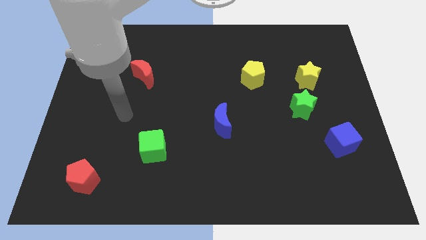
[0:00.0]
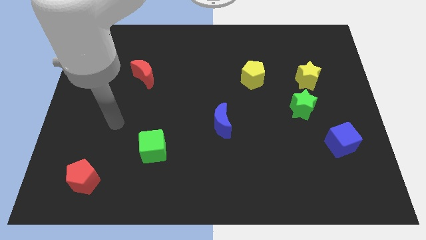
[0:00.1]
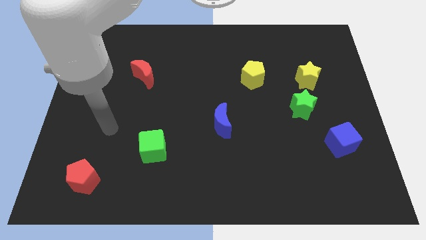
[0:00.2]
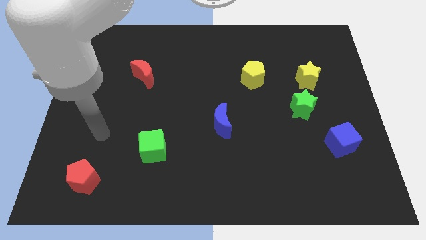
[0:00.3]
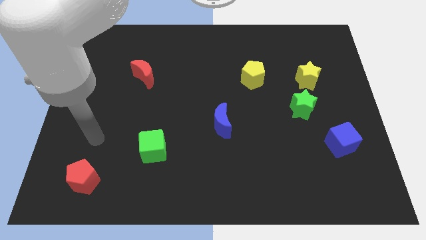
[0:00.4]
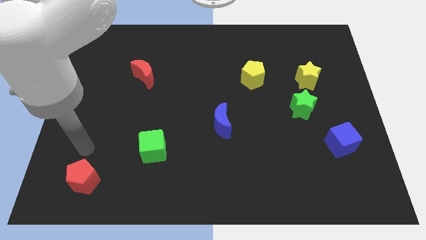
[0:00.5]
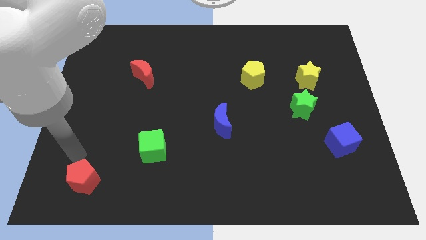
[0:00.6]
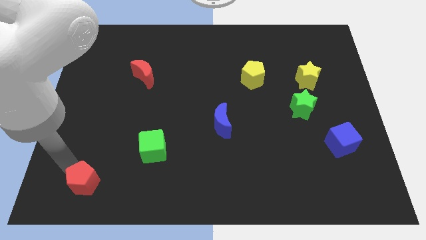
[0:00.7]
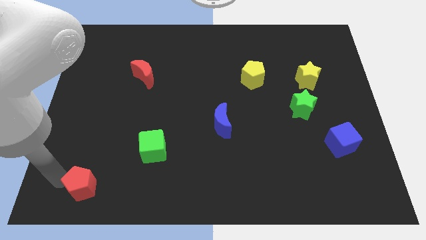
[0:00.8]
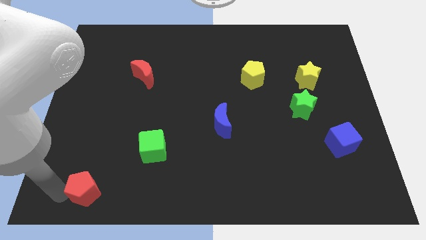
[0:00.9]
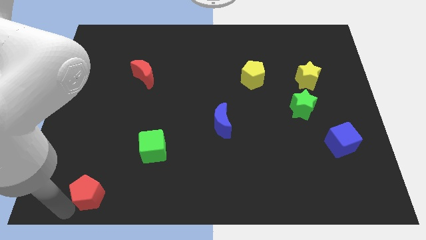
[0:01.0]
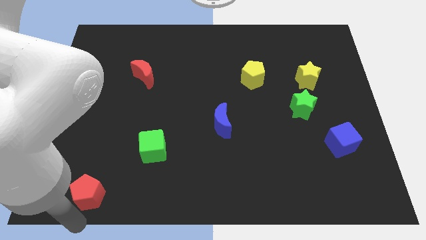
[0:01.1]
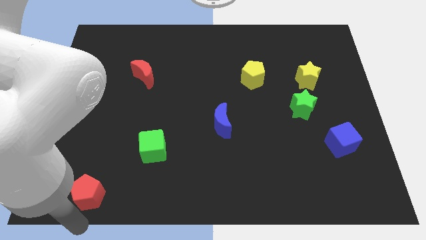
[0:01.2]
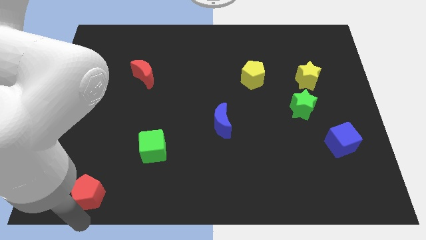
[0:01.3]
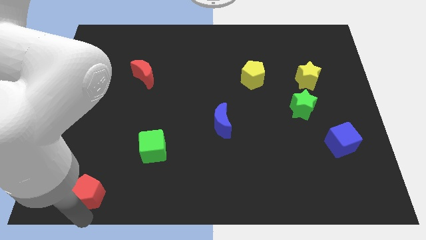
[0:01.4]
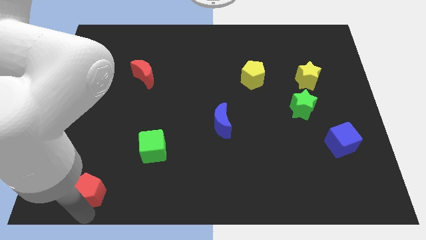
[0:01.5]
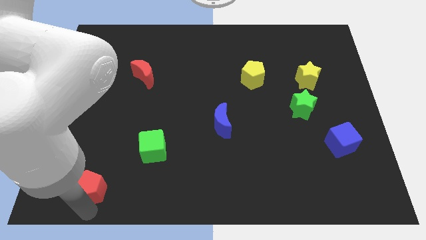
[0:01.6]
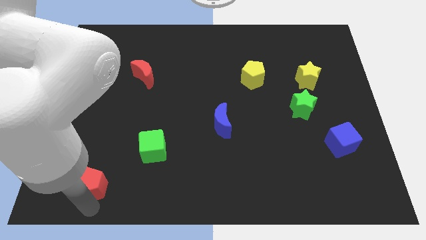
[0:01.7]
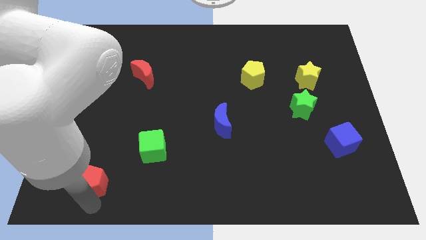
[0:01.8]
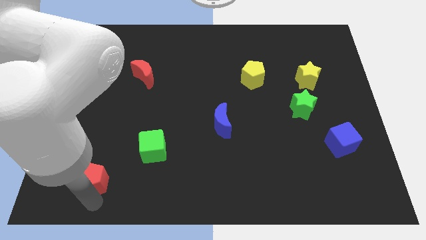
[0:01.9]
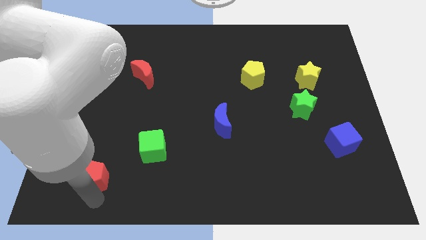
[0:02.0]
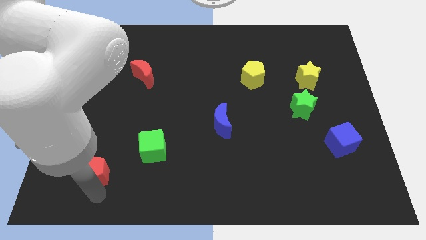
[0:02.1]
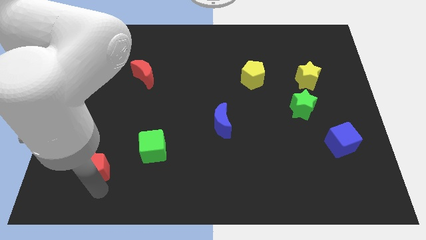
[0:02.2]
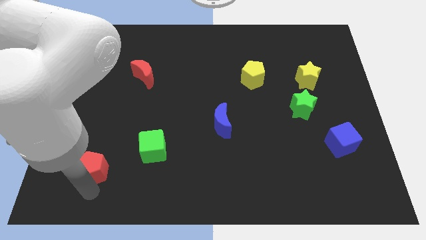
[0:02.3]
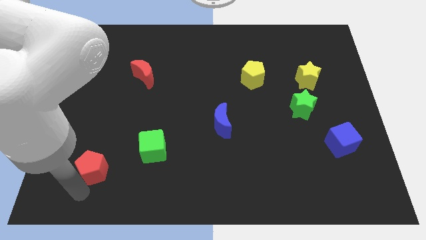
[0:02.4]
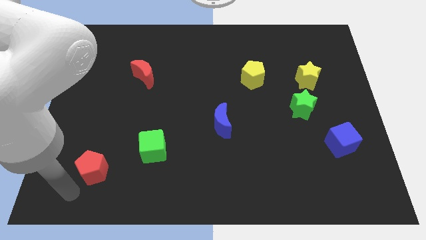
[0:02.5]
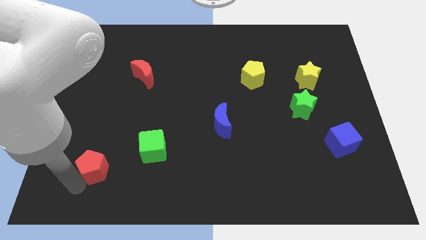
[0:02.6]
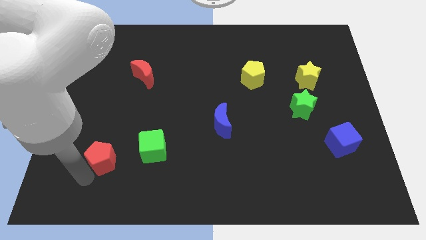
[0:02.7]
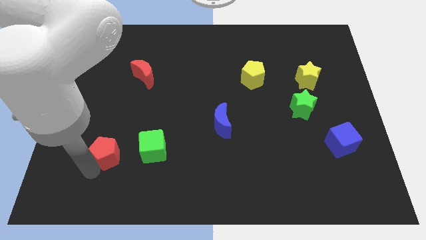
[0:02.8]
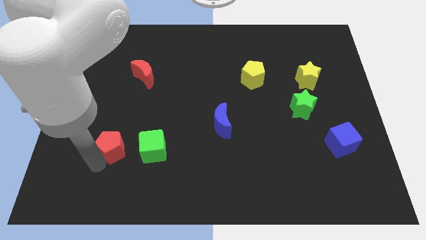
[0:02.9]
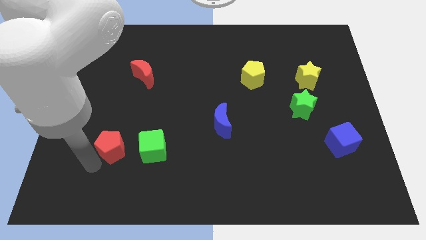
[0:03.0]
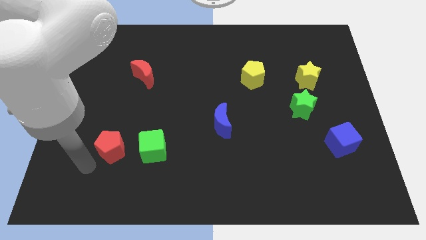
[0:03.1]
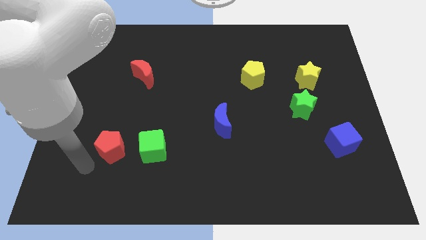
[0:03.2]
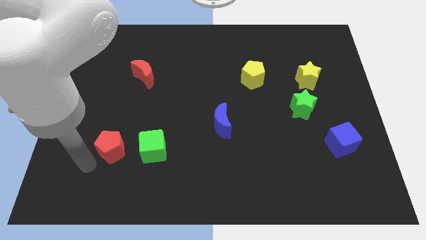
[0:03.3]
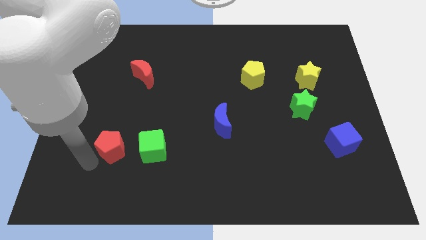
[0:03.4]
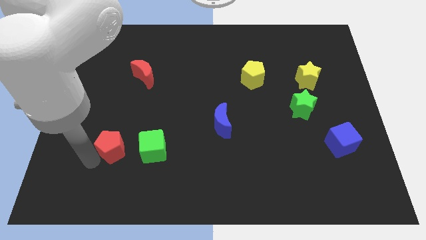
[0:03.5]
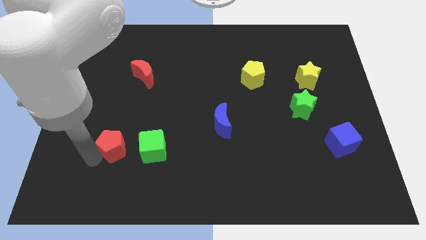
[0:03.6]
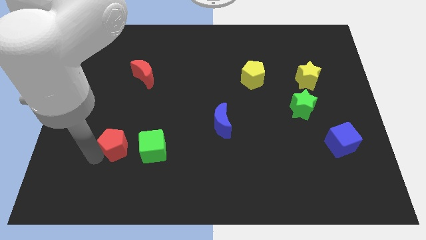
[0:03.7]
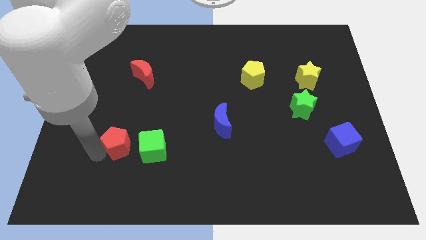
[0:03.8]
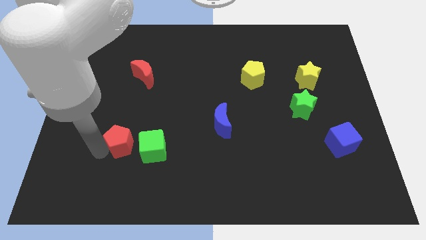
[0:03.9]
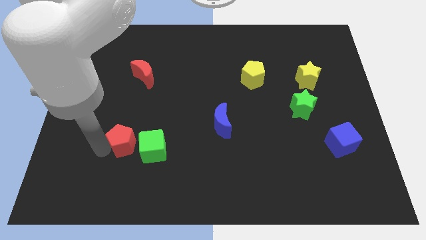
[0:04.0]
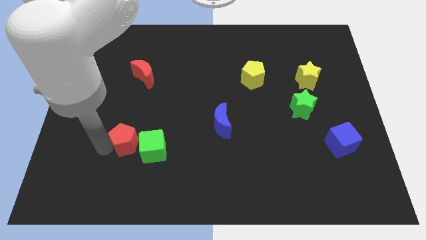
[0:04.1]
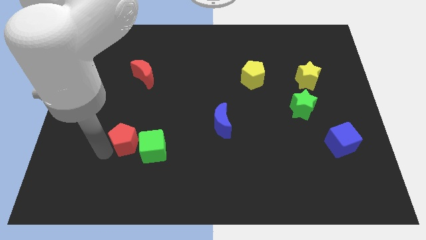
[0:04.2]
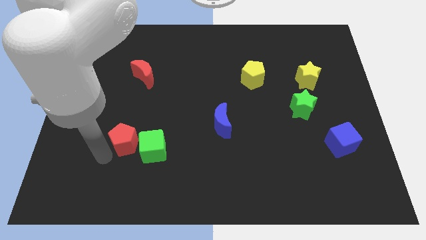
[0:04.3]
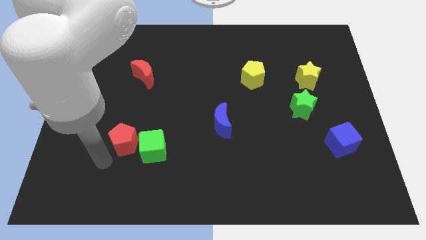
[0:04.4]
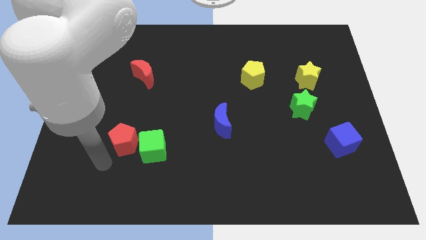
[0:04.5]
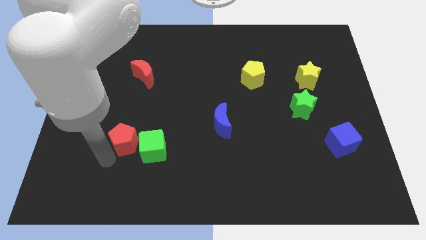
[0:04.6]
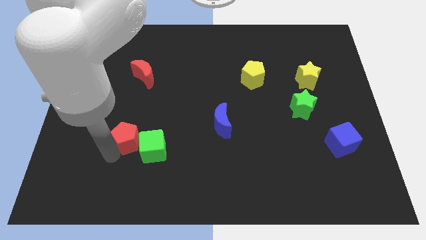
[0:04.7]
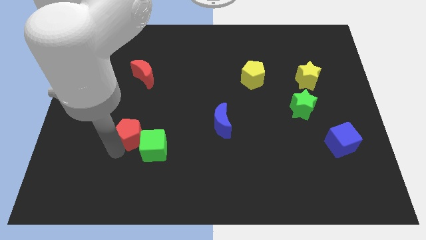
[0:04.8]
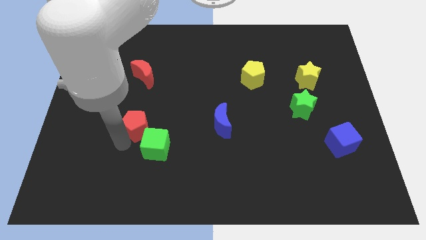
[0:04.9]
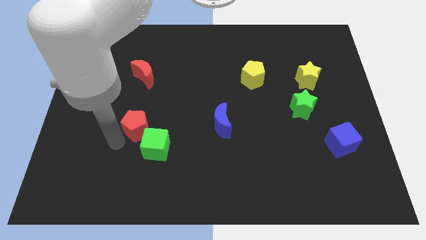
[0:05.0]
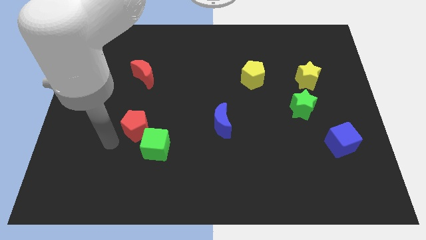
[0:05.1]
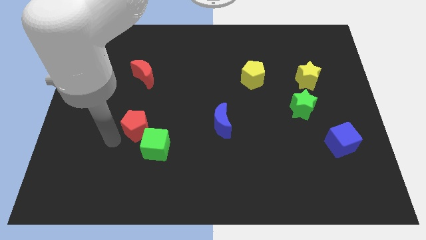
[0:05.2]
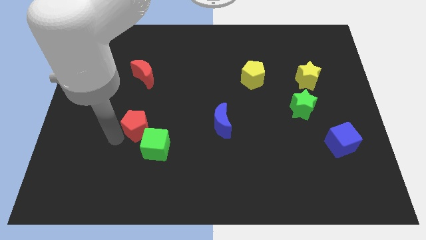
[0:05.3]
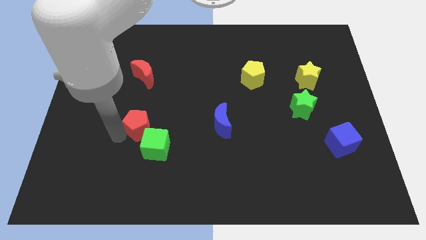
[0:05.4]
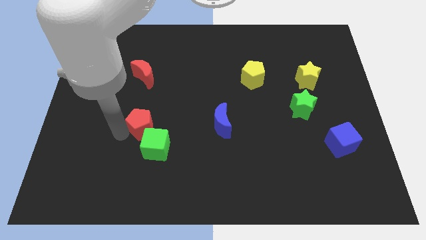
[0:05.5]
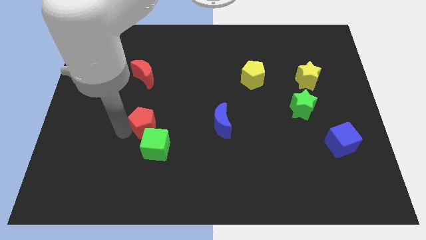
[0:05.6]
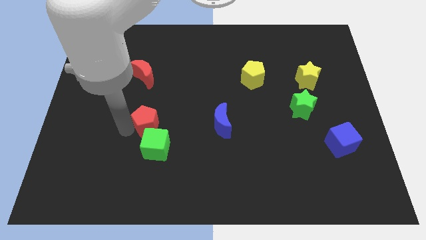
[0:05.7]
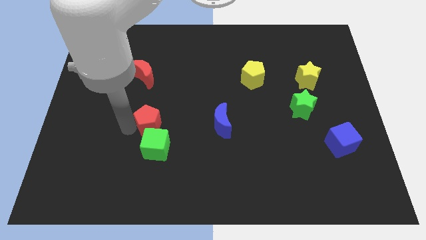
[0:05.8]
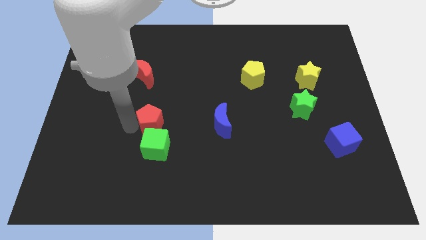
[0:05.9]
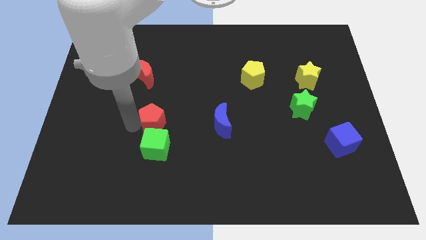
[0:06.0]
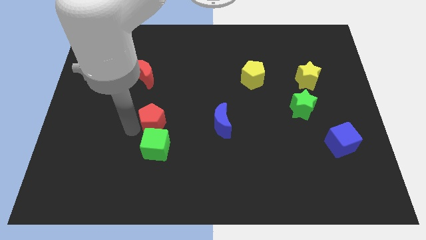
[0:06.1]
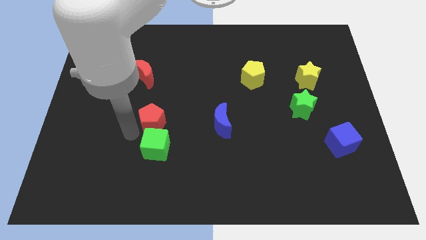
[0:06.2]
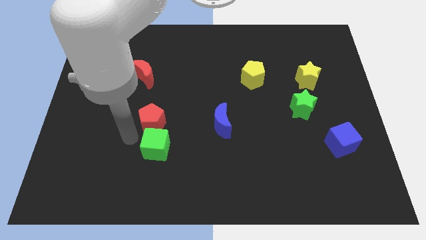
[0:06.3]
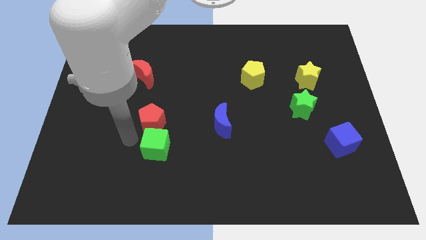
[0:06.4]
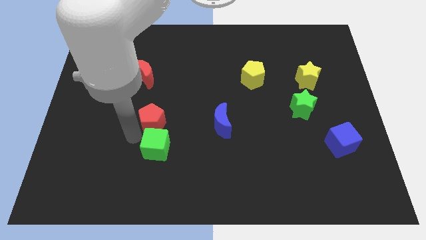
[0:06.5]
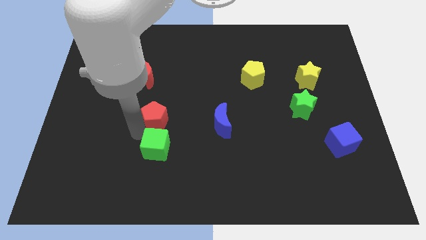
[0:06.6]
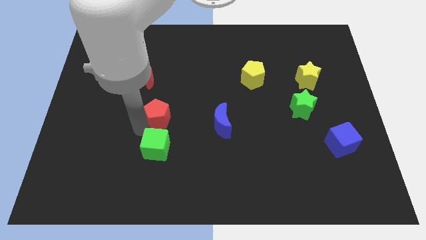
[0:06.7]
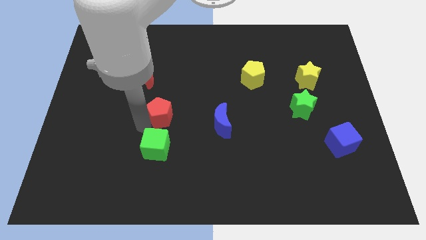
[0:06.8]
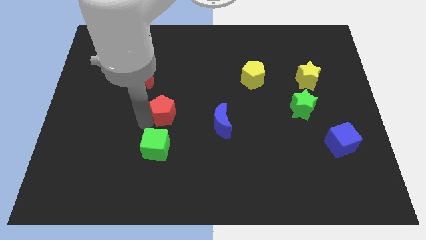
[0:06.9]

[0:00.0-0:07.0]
put the red pentagon to the center of the board
